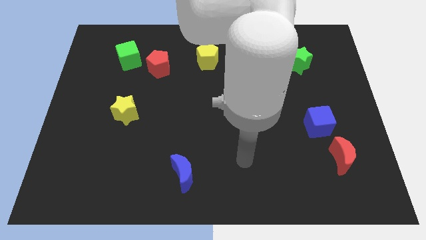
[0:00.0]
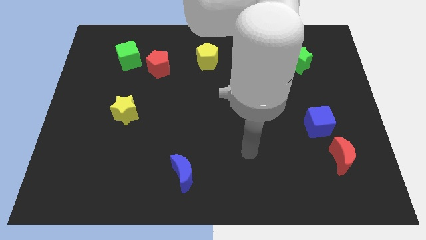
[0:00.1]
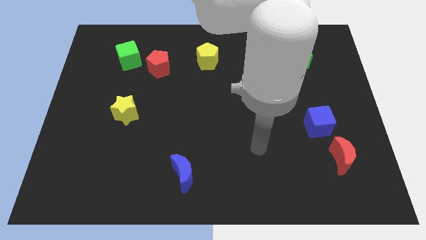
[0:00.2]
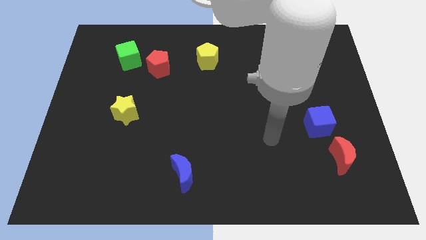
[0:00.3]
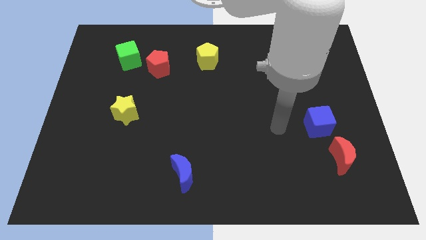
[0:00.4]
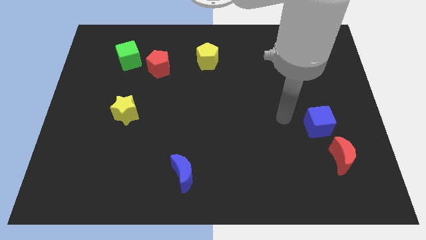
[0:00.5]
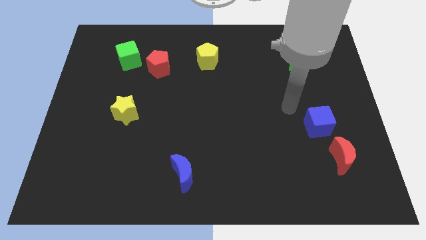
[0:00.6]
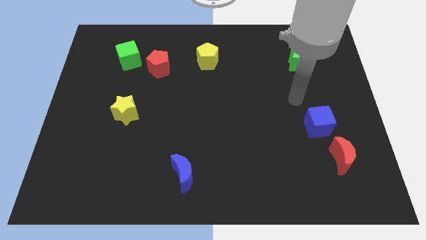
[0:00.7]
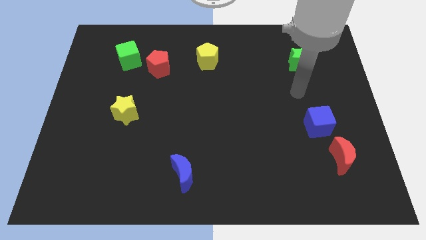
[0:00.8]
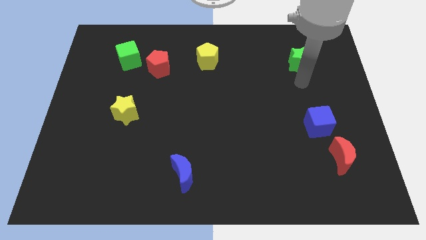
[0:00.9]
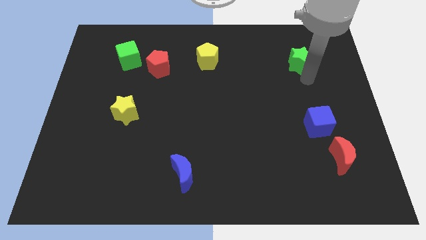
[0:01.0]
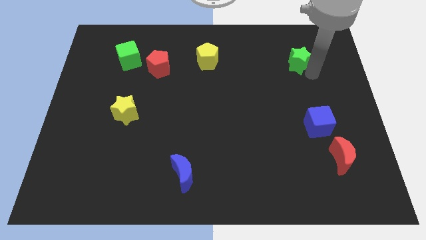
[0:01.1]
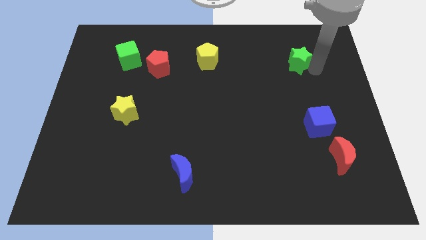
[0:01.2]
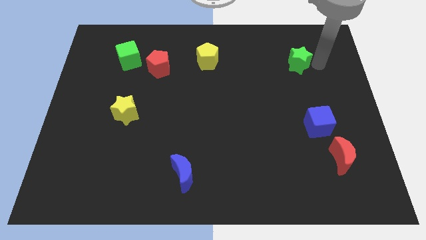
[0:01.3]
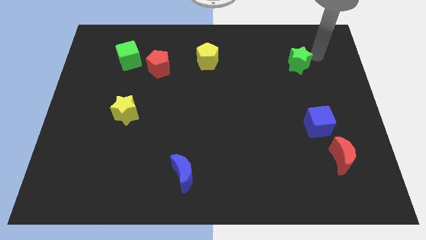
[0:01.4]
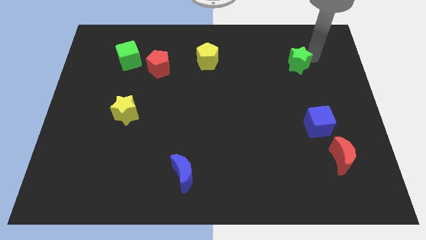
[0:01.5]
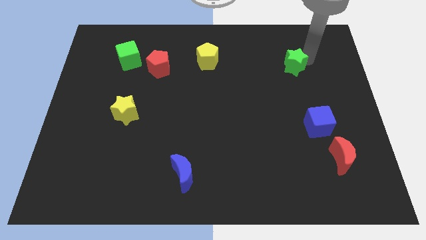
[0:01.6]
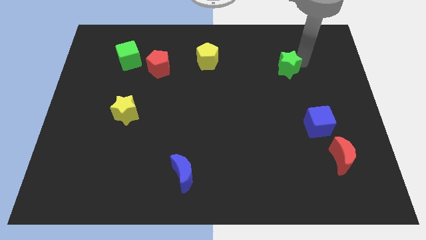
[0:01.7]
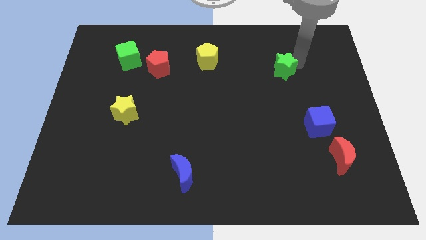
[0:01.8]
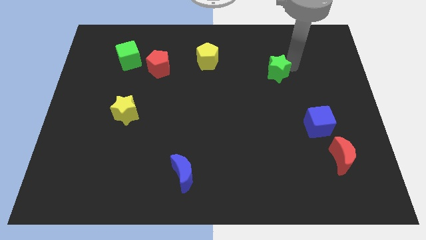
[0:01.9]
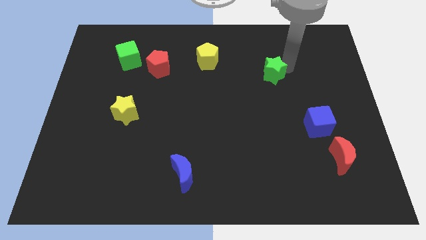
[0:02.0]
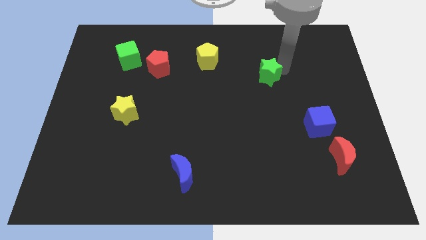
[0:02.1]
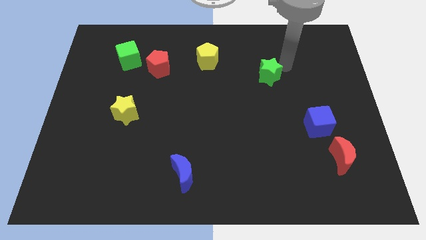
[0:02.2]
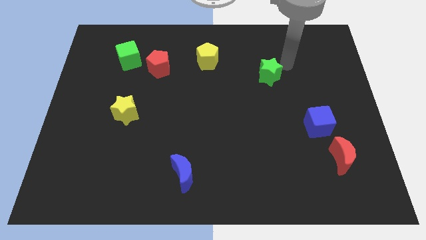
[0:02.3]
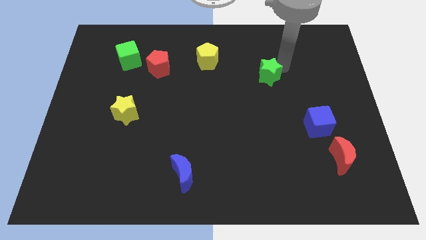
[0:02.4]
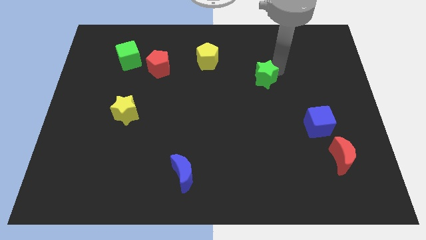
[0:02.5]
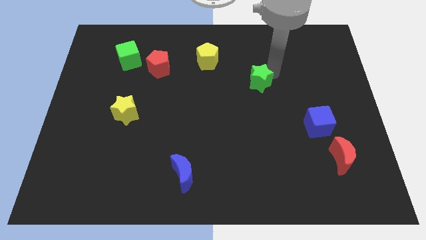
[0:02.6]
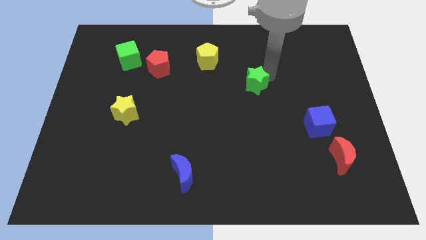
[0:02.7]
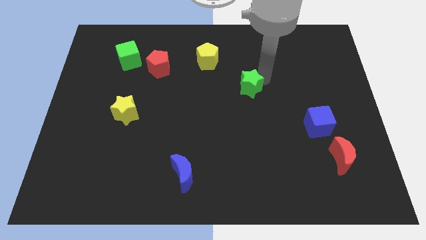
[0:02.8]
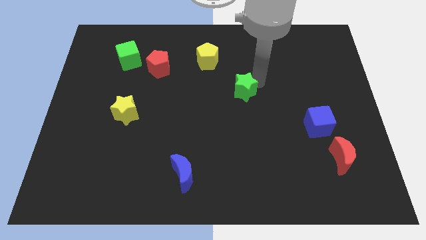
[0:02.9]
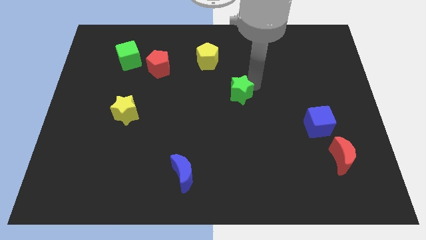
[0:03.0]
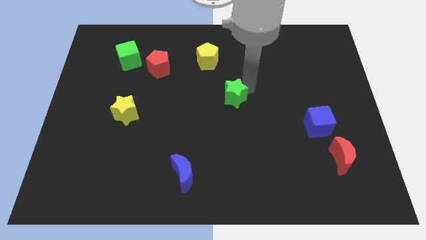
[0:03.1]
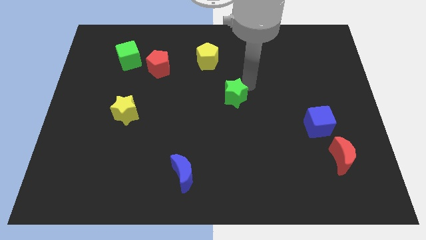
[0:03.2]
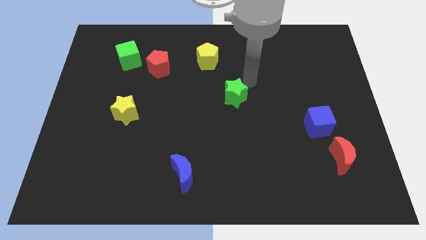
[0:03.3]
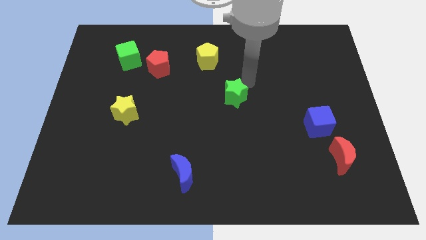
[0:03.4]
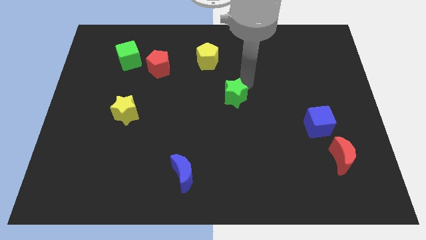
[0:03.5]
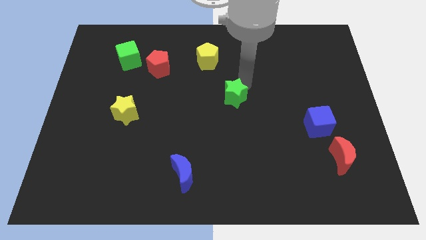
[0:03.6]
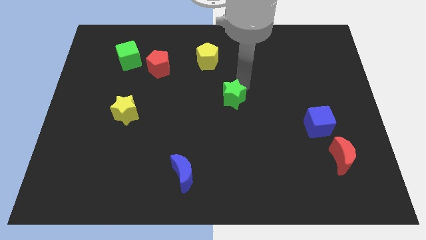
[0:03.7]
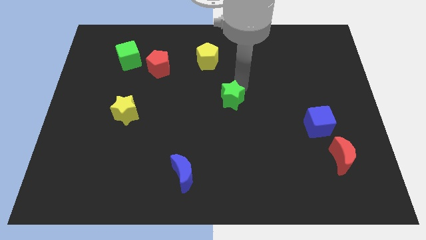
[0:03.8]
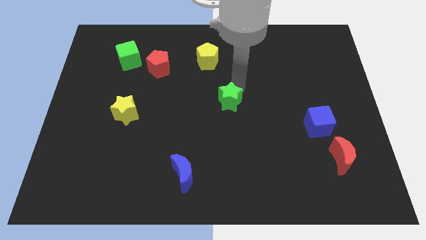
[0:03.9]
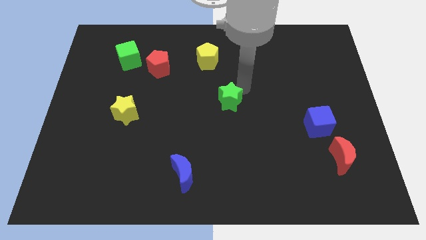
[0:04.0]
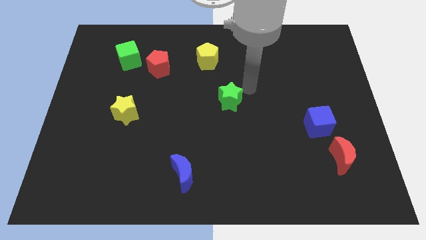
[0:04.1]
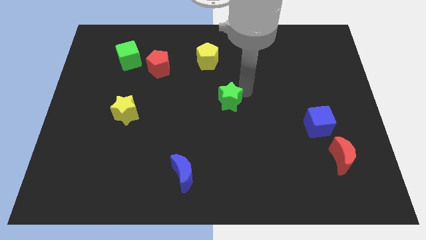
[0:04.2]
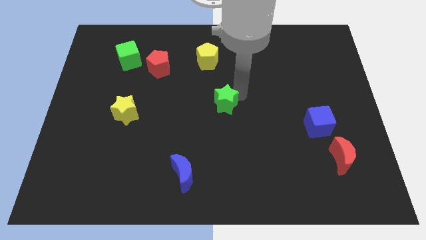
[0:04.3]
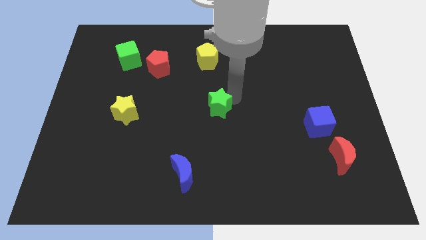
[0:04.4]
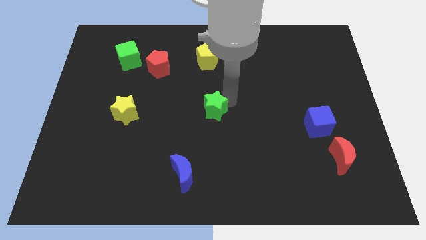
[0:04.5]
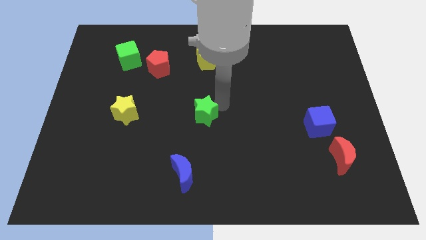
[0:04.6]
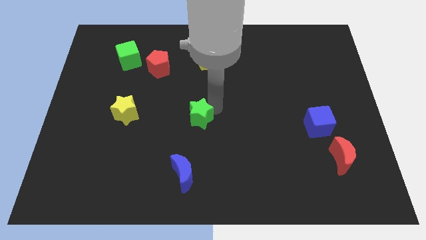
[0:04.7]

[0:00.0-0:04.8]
move the green star above the blue moon

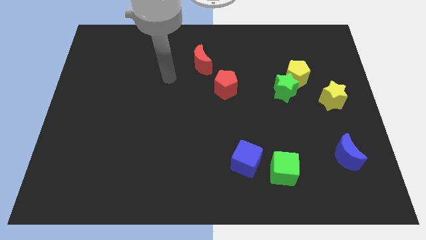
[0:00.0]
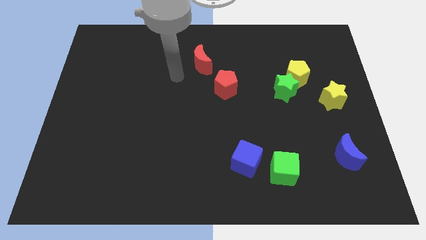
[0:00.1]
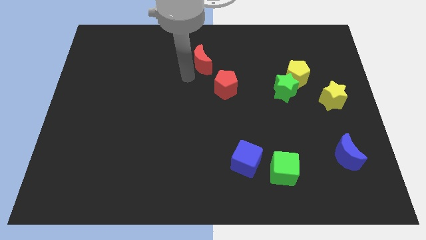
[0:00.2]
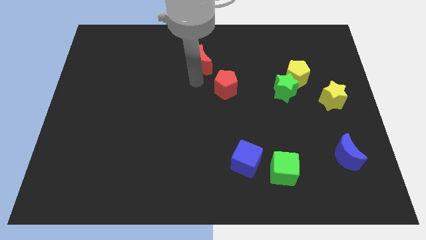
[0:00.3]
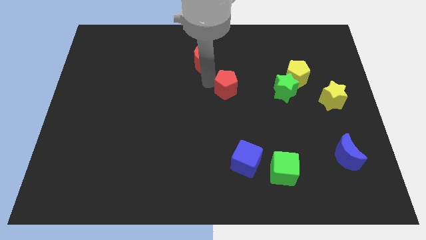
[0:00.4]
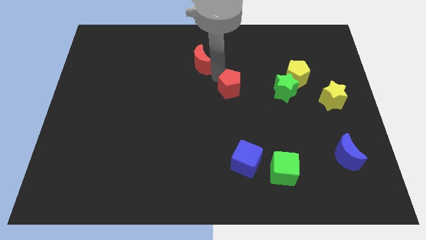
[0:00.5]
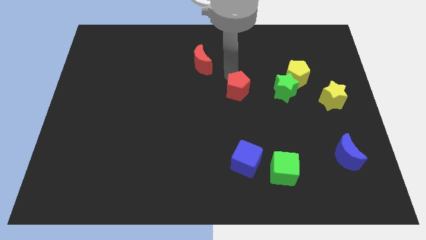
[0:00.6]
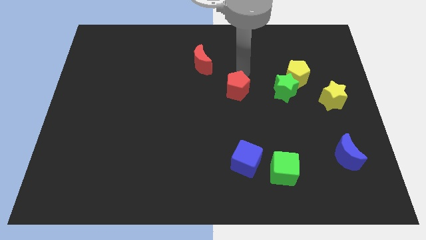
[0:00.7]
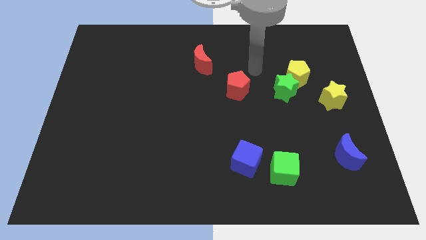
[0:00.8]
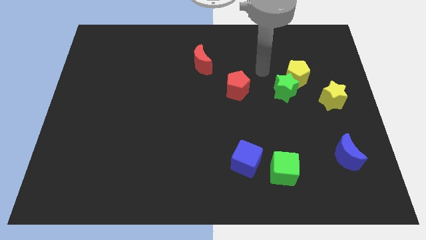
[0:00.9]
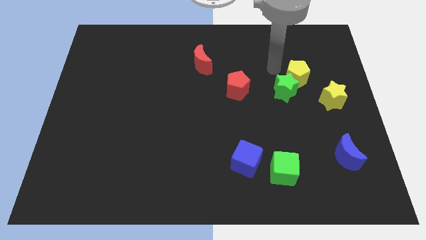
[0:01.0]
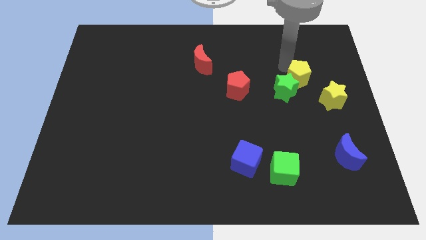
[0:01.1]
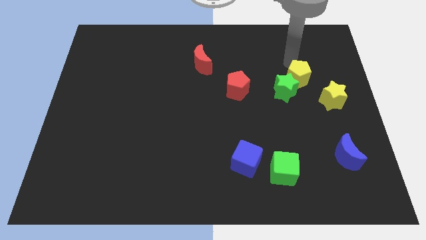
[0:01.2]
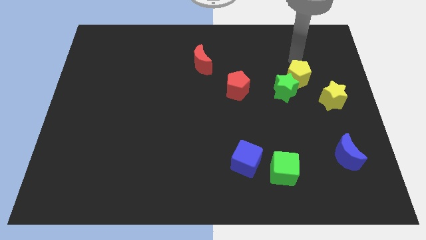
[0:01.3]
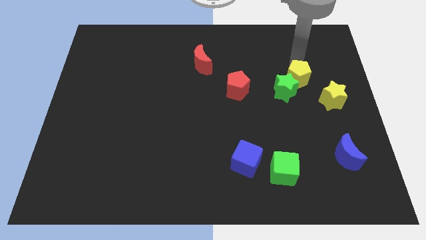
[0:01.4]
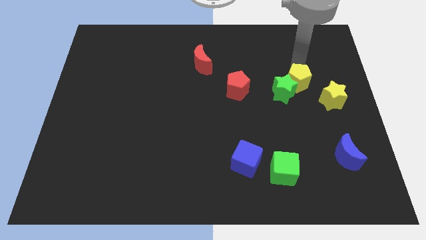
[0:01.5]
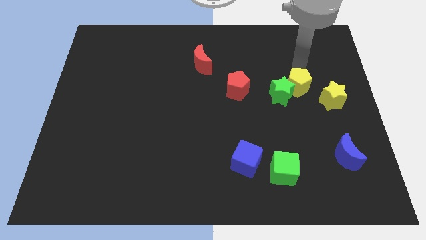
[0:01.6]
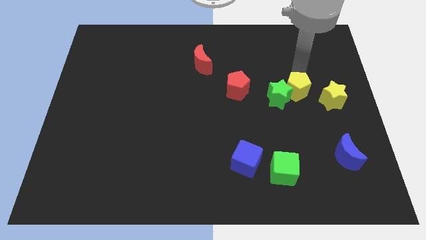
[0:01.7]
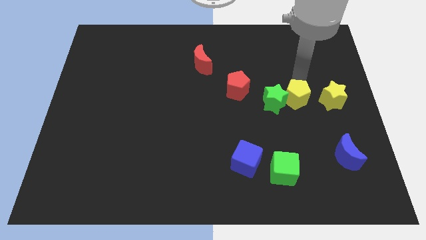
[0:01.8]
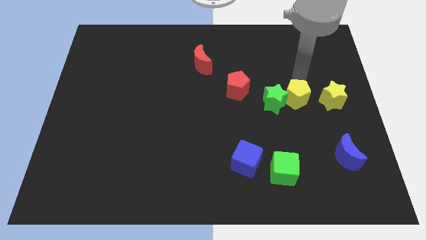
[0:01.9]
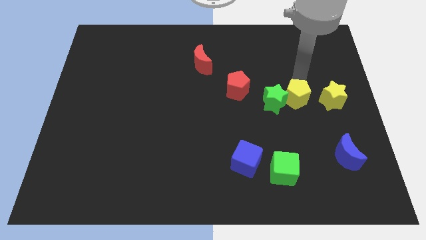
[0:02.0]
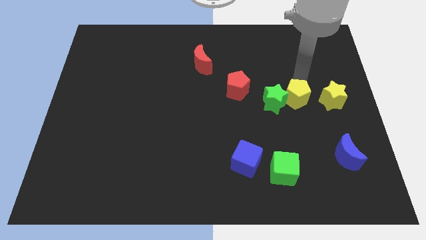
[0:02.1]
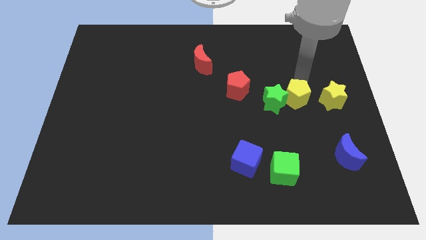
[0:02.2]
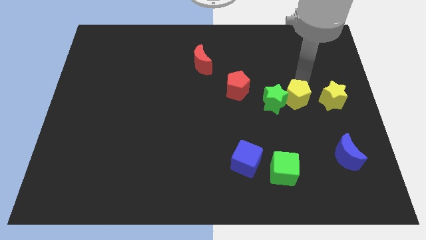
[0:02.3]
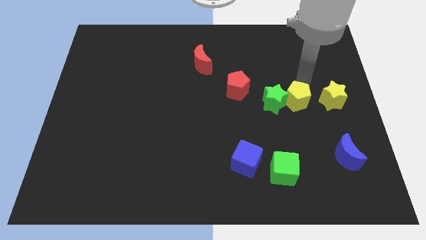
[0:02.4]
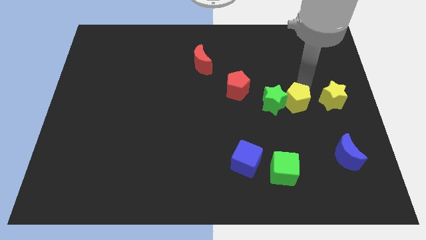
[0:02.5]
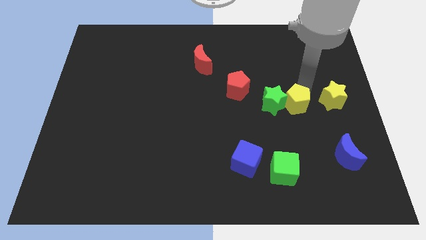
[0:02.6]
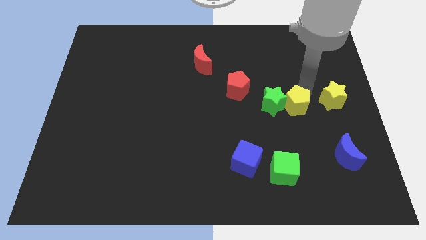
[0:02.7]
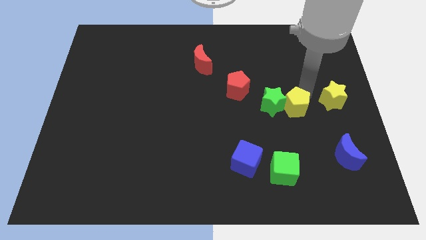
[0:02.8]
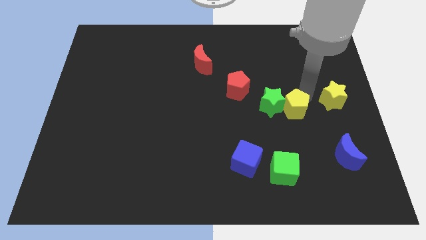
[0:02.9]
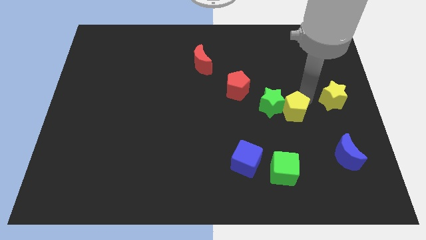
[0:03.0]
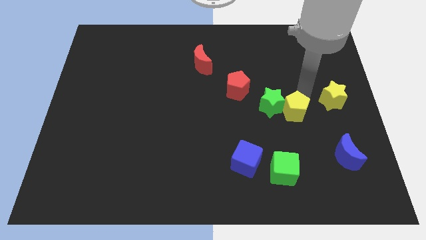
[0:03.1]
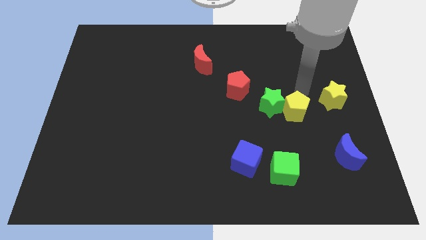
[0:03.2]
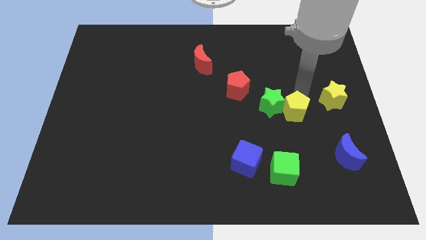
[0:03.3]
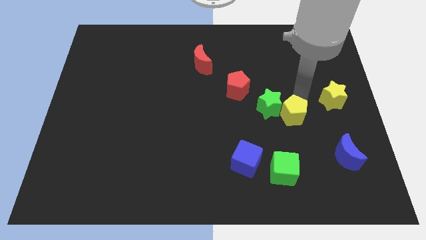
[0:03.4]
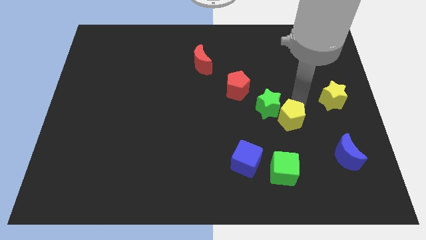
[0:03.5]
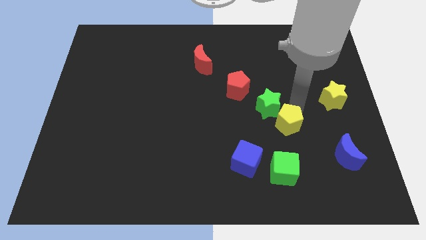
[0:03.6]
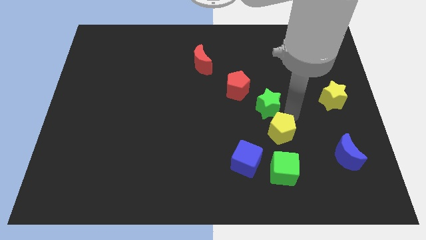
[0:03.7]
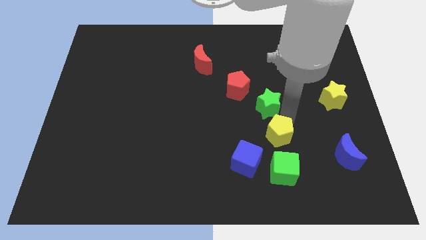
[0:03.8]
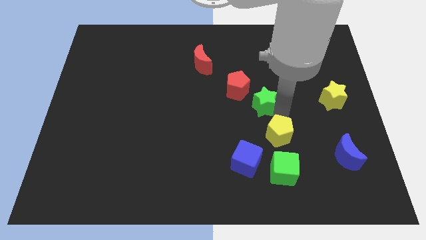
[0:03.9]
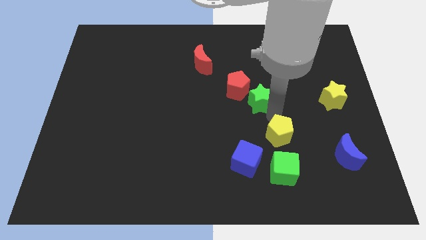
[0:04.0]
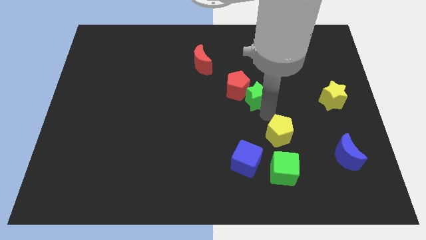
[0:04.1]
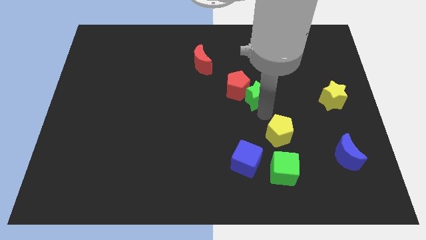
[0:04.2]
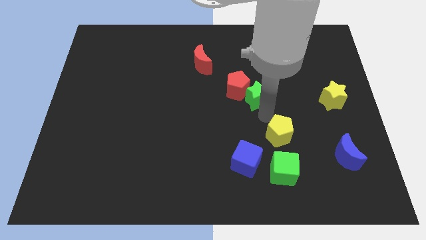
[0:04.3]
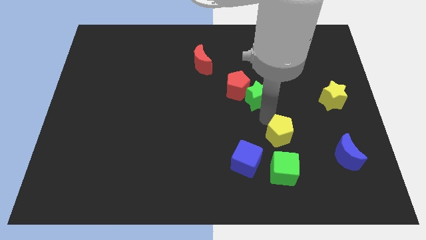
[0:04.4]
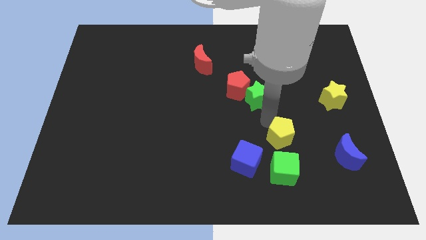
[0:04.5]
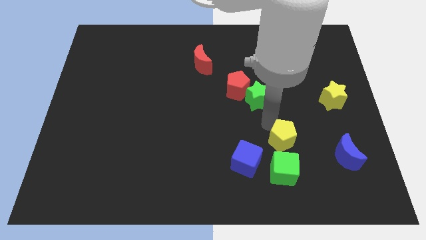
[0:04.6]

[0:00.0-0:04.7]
push the yellow pentagon to the left side of the blue moon
